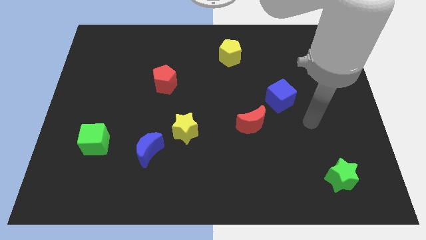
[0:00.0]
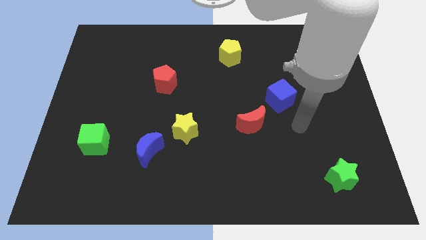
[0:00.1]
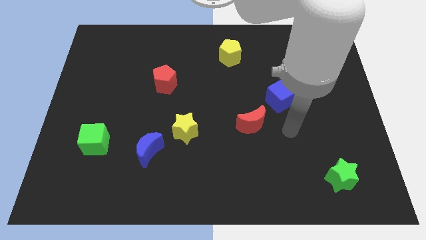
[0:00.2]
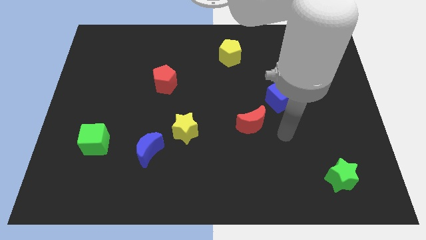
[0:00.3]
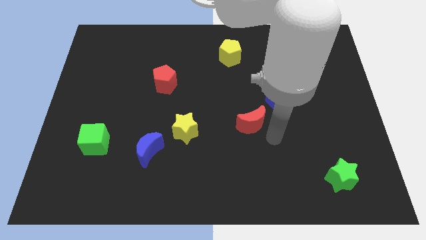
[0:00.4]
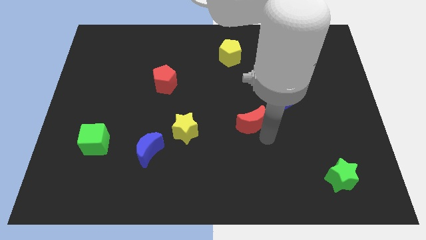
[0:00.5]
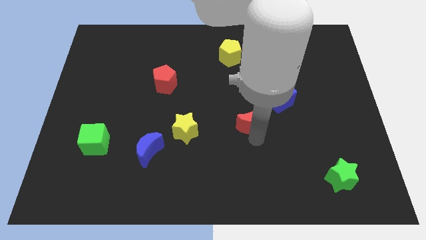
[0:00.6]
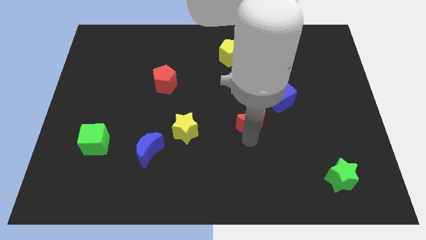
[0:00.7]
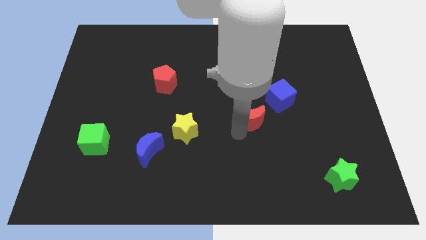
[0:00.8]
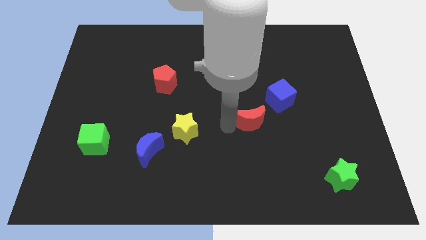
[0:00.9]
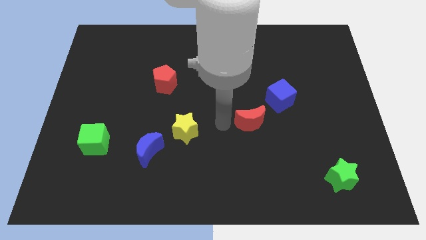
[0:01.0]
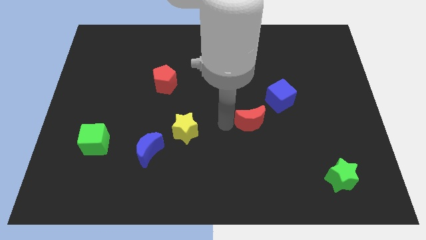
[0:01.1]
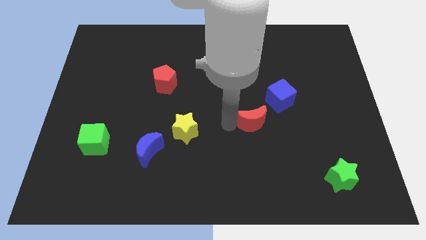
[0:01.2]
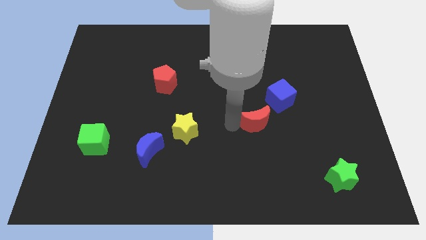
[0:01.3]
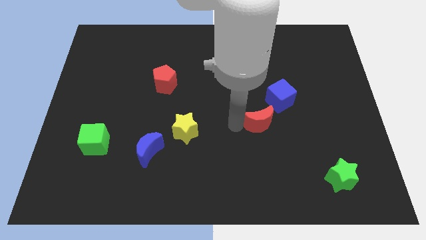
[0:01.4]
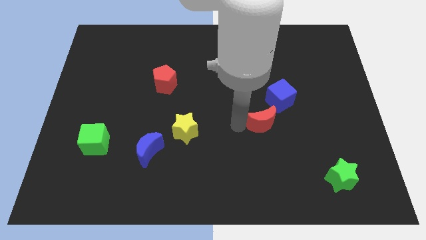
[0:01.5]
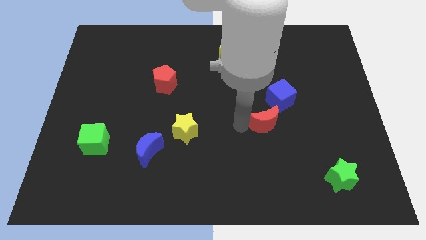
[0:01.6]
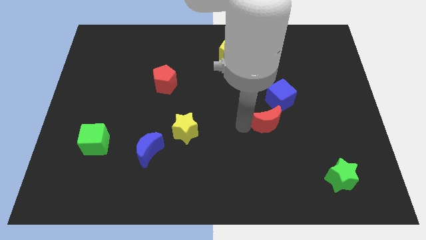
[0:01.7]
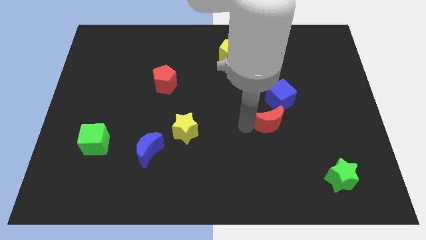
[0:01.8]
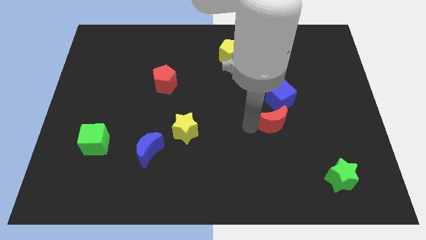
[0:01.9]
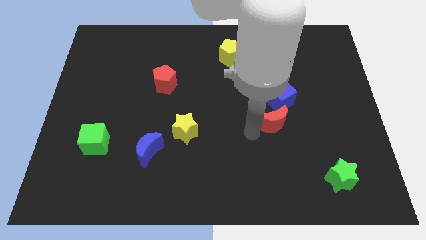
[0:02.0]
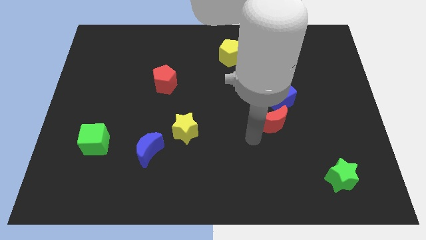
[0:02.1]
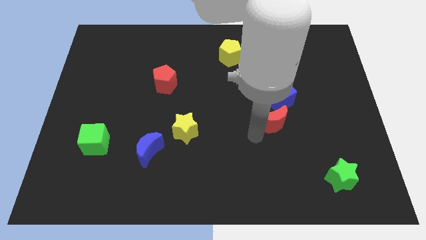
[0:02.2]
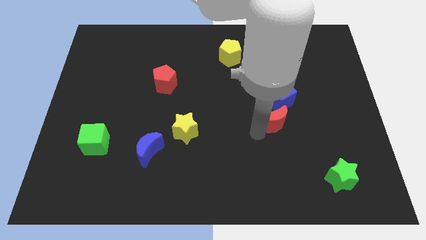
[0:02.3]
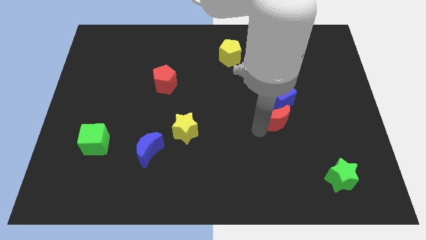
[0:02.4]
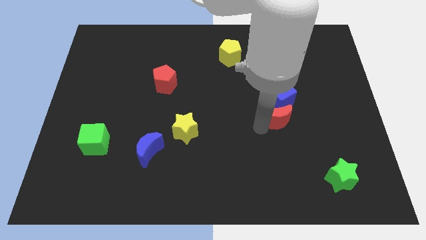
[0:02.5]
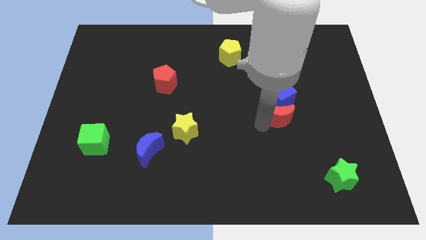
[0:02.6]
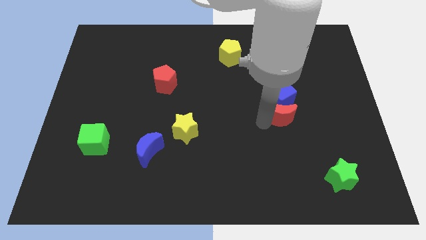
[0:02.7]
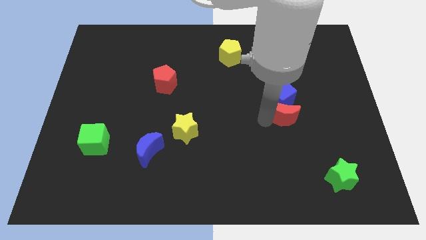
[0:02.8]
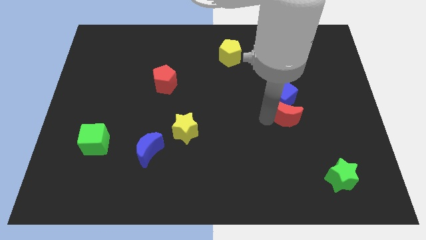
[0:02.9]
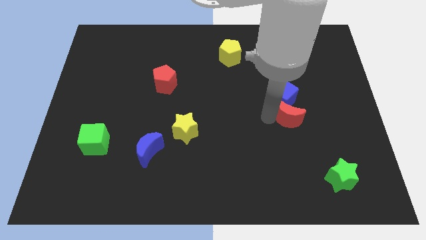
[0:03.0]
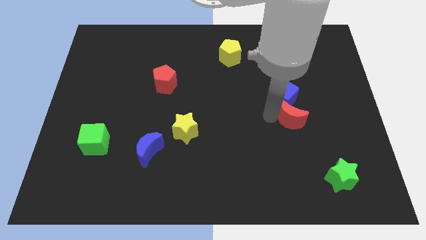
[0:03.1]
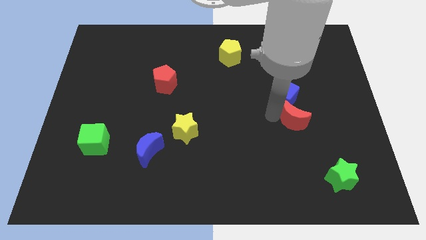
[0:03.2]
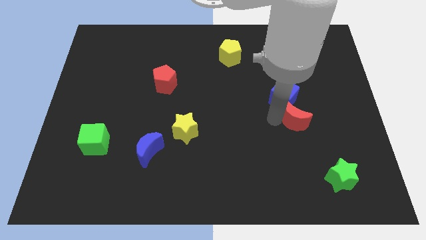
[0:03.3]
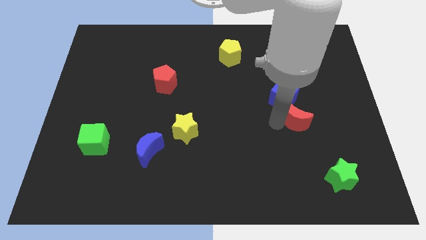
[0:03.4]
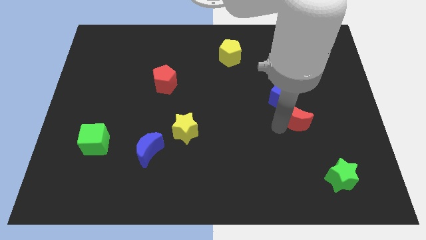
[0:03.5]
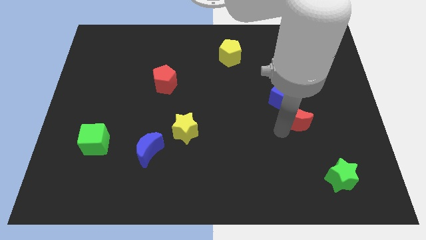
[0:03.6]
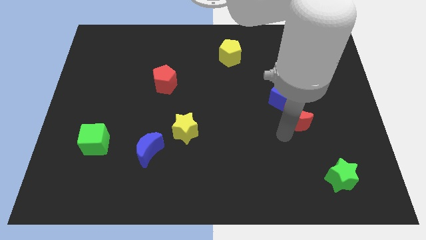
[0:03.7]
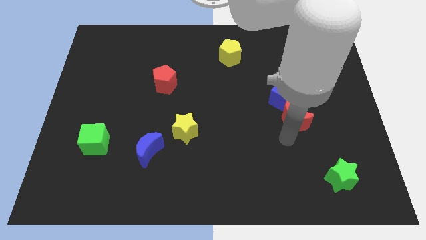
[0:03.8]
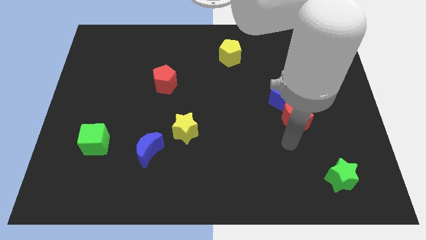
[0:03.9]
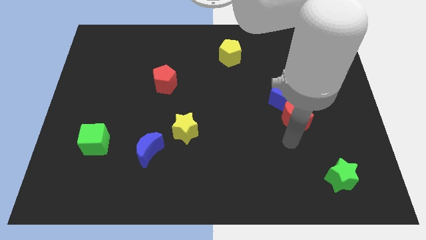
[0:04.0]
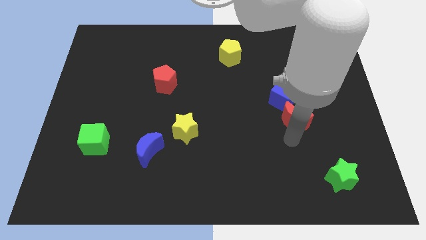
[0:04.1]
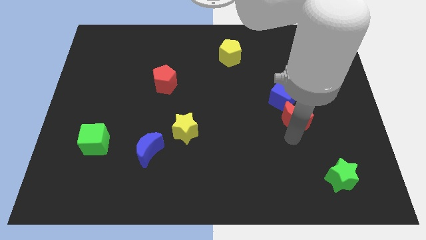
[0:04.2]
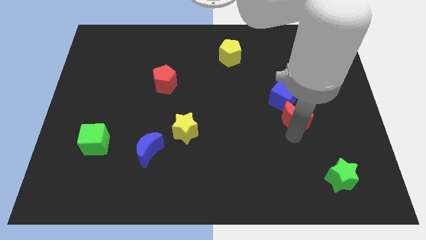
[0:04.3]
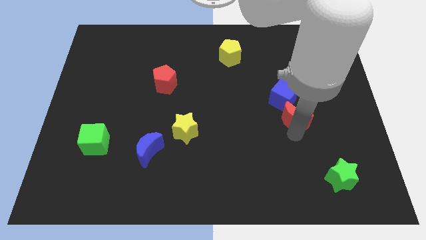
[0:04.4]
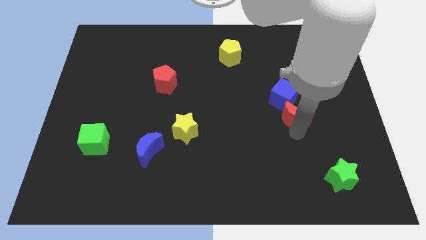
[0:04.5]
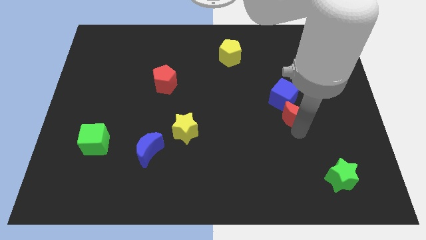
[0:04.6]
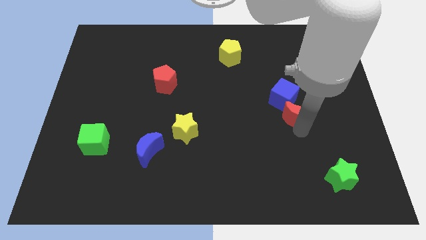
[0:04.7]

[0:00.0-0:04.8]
slide the red moon upwards and right diagonally somewhat

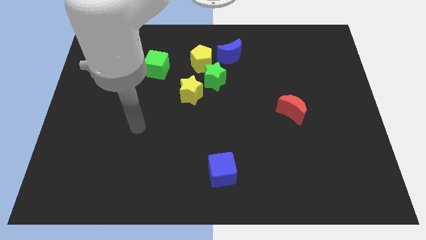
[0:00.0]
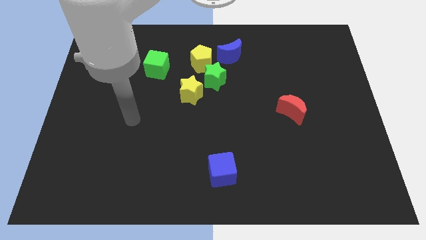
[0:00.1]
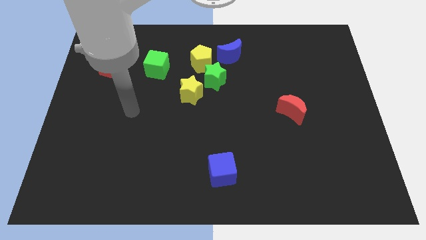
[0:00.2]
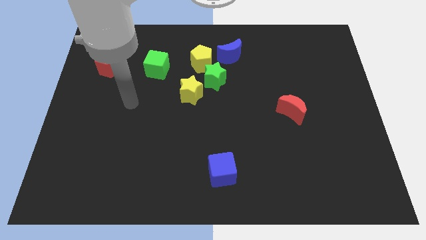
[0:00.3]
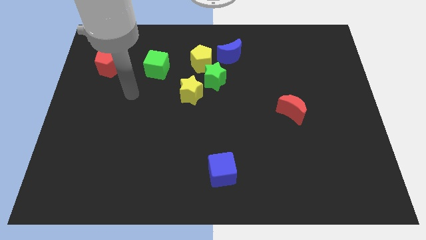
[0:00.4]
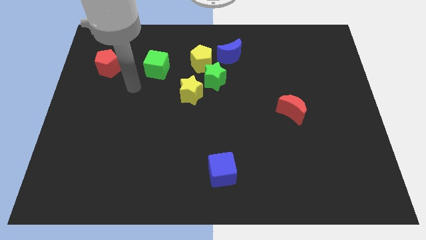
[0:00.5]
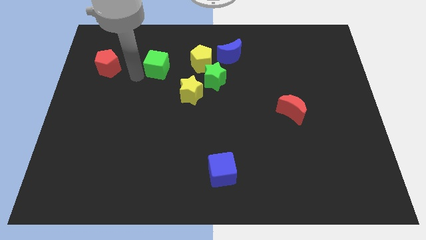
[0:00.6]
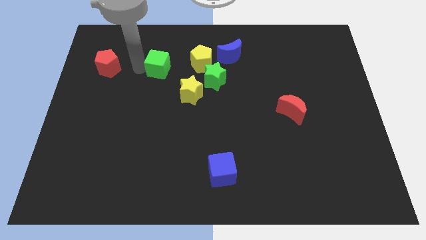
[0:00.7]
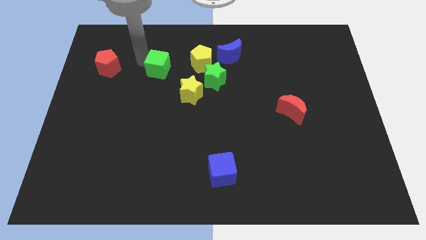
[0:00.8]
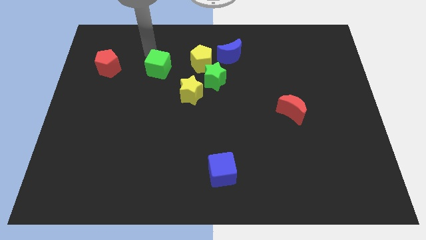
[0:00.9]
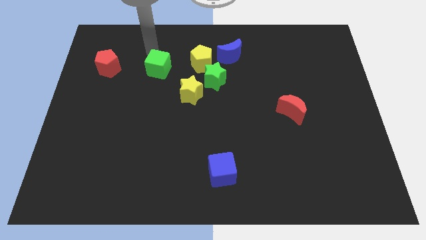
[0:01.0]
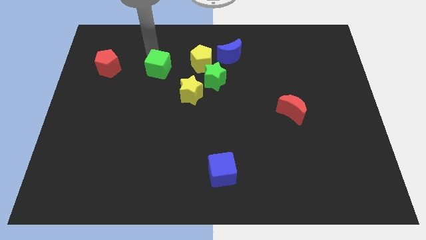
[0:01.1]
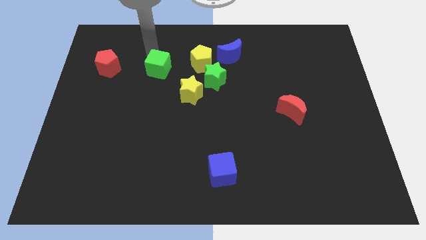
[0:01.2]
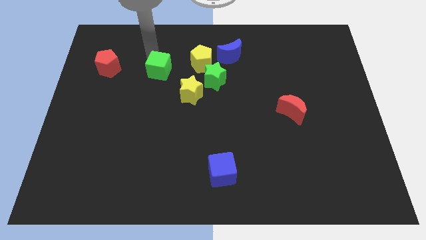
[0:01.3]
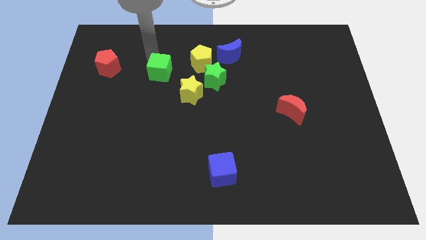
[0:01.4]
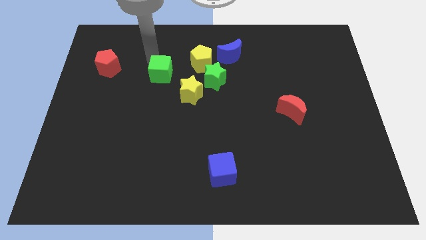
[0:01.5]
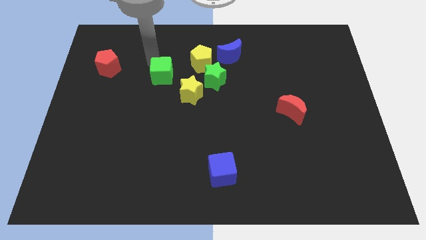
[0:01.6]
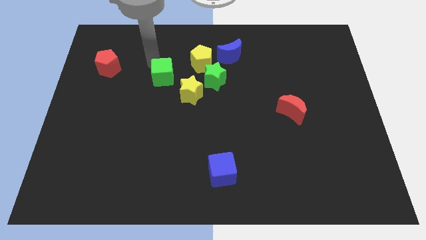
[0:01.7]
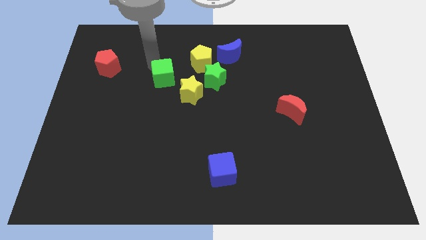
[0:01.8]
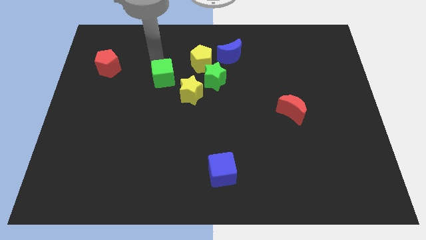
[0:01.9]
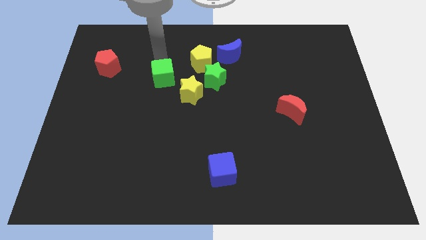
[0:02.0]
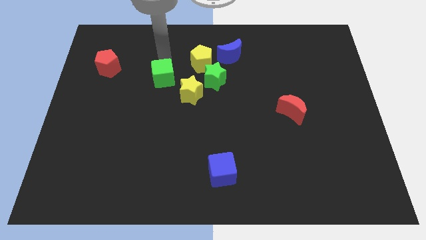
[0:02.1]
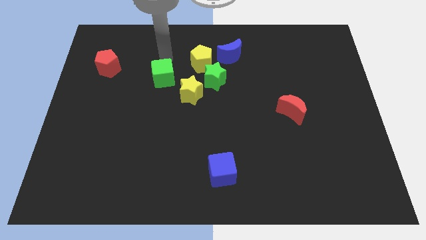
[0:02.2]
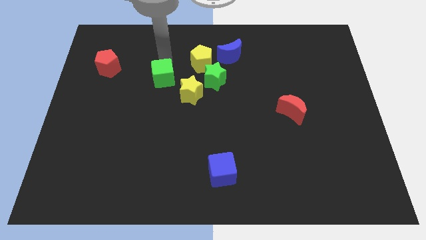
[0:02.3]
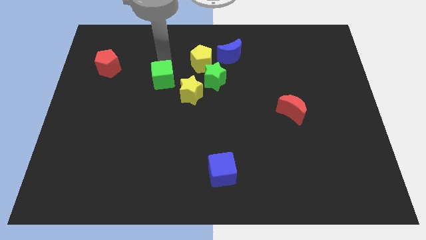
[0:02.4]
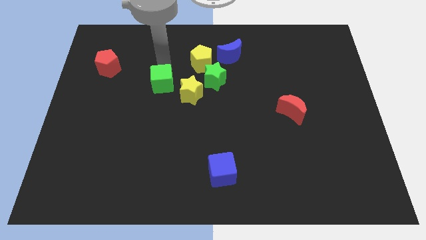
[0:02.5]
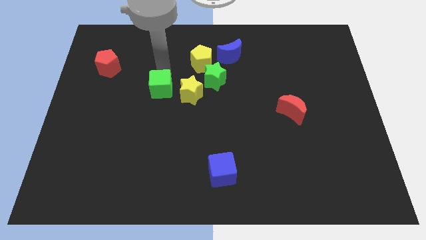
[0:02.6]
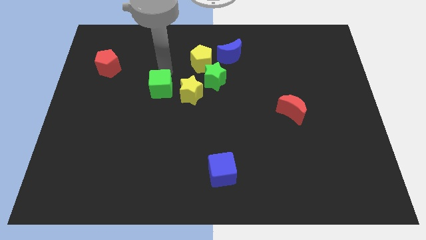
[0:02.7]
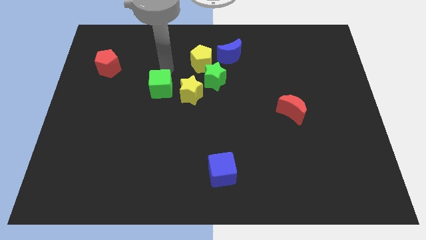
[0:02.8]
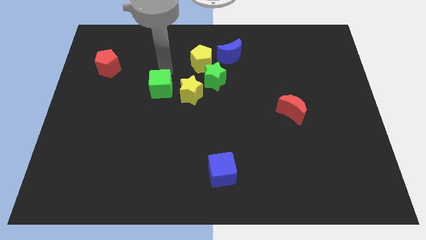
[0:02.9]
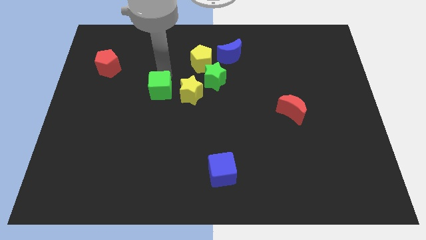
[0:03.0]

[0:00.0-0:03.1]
move the green cube slightly down
